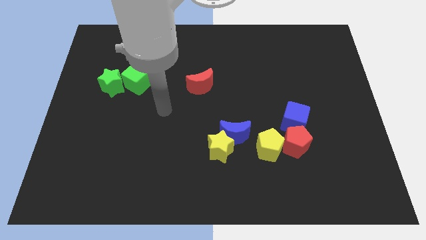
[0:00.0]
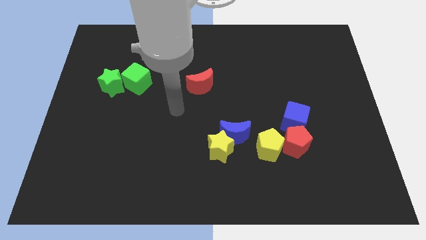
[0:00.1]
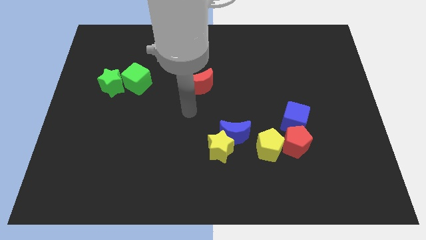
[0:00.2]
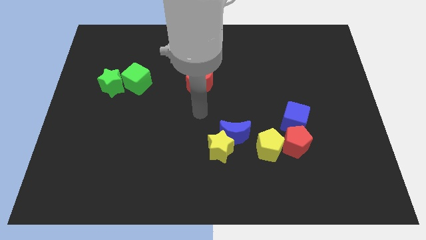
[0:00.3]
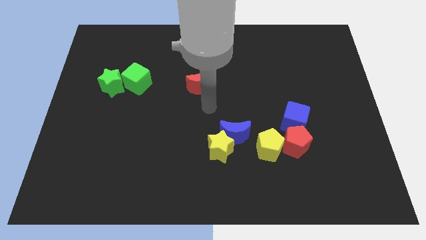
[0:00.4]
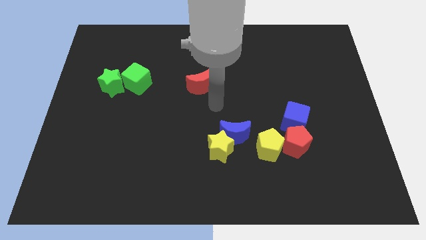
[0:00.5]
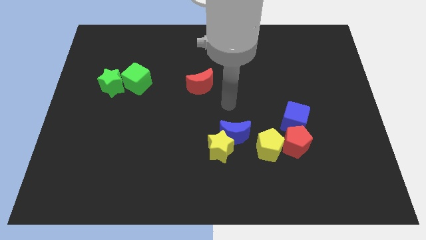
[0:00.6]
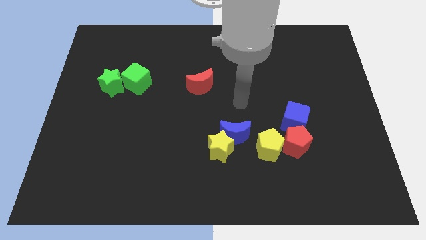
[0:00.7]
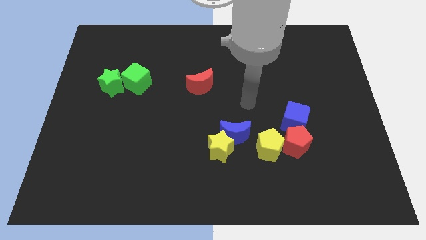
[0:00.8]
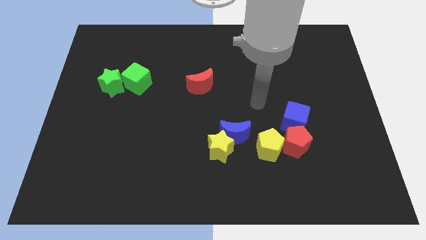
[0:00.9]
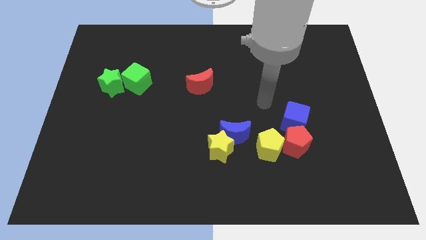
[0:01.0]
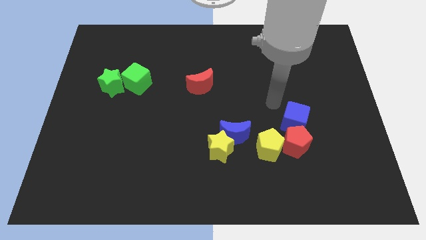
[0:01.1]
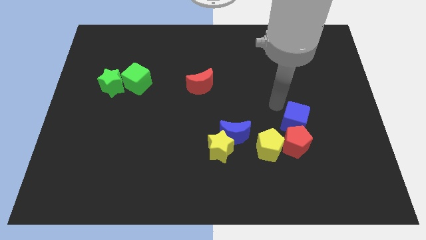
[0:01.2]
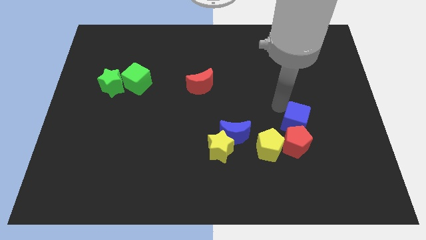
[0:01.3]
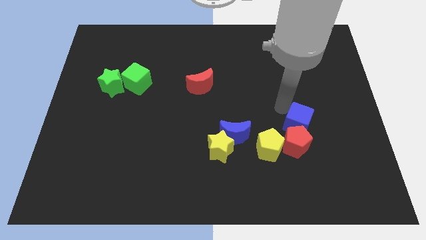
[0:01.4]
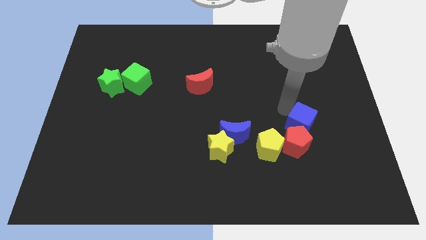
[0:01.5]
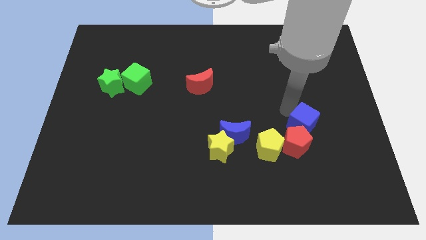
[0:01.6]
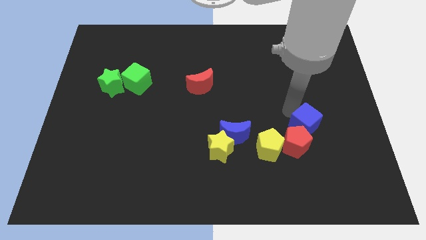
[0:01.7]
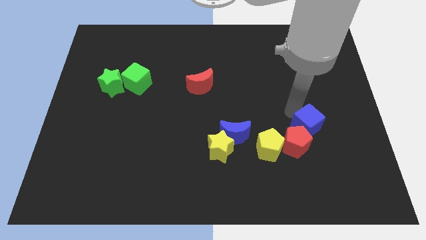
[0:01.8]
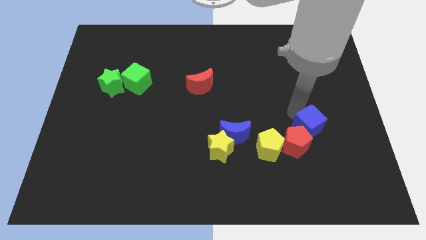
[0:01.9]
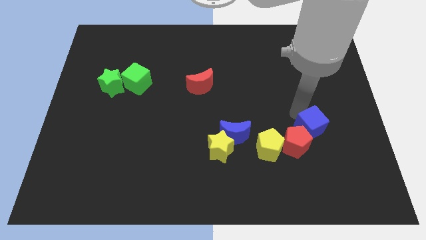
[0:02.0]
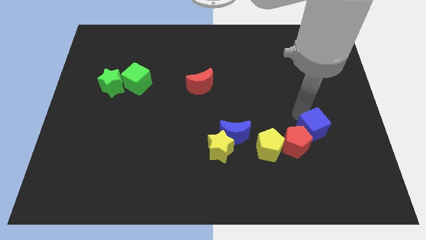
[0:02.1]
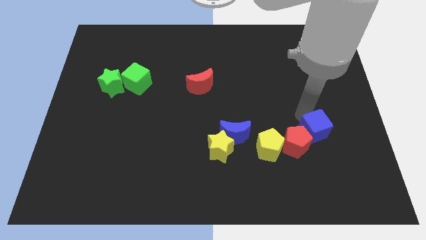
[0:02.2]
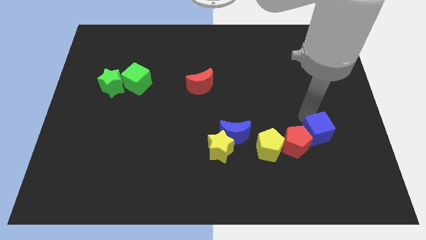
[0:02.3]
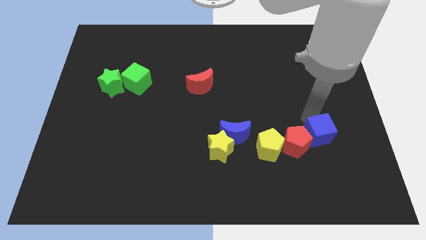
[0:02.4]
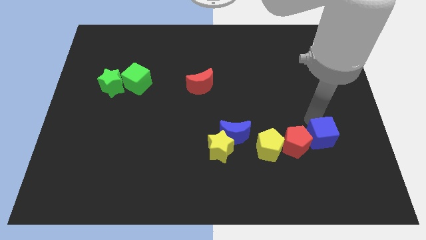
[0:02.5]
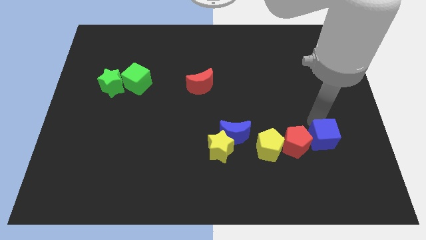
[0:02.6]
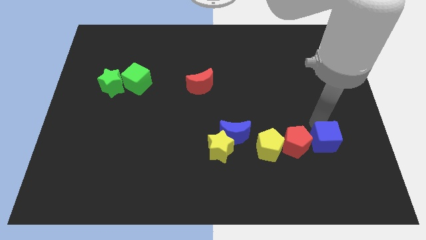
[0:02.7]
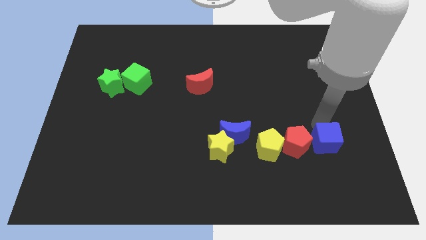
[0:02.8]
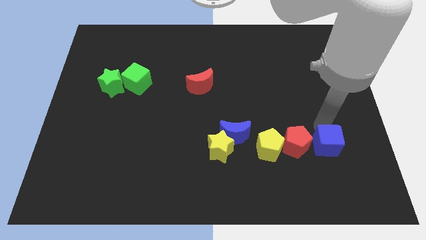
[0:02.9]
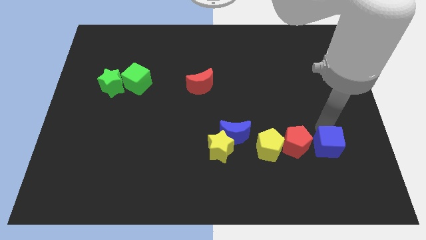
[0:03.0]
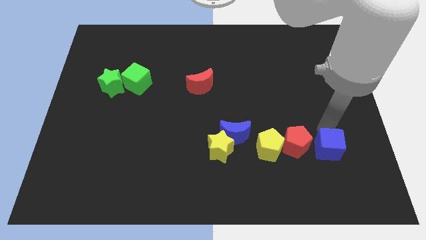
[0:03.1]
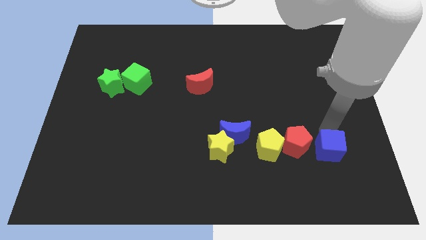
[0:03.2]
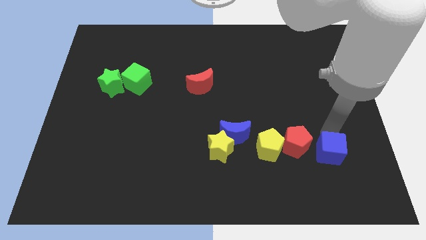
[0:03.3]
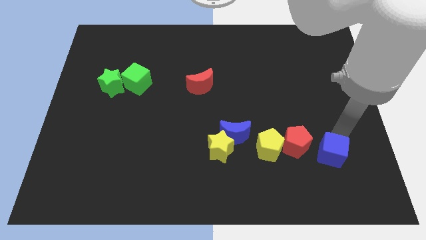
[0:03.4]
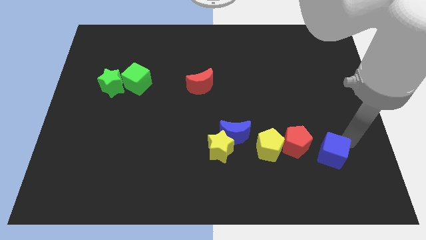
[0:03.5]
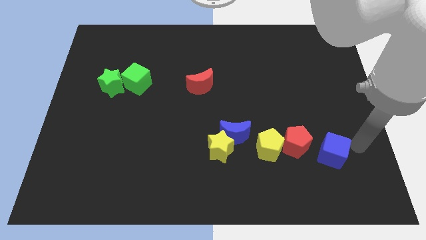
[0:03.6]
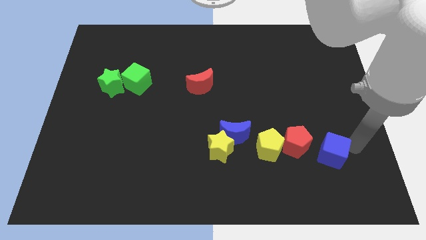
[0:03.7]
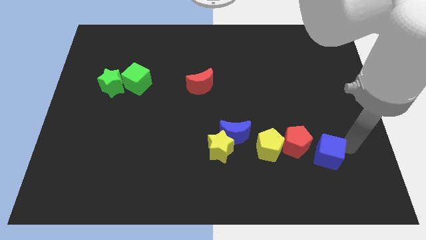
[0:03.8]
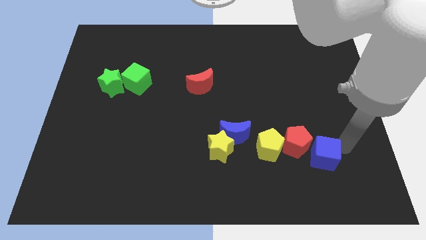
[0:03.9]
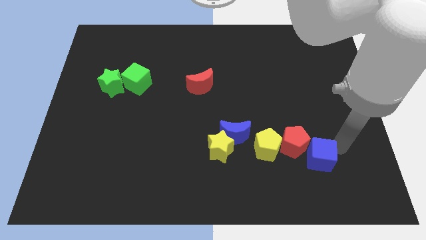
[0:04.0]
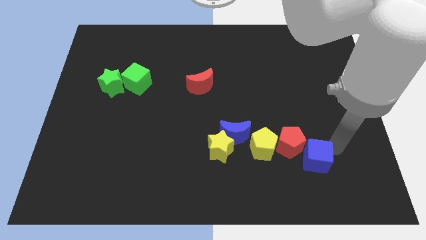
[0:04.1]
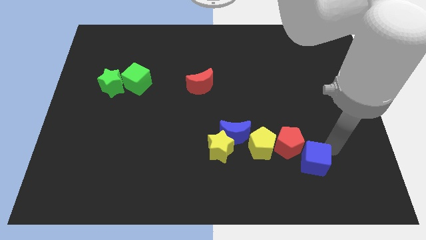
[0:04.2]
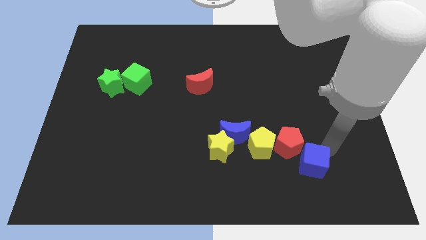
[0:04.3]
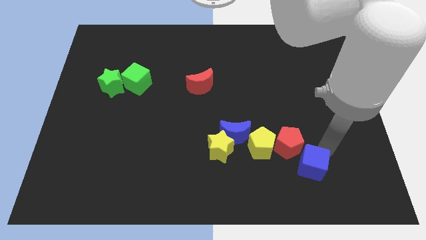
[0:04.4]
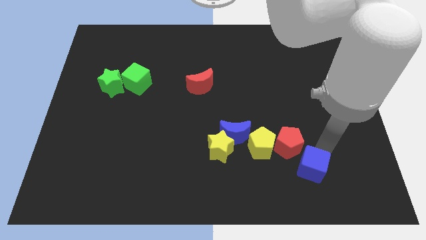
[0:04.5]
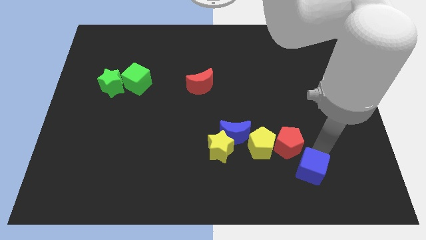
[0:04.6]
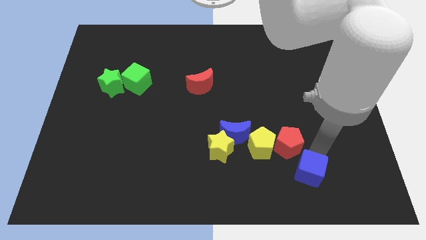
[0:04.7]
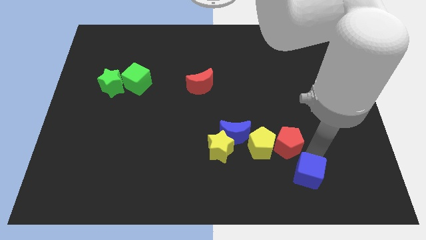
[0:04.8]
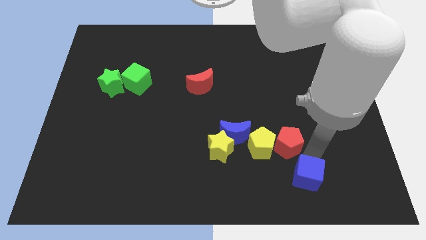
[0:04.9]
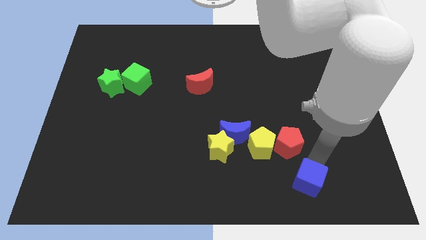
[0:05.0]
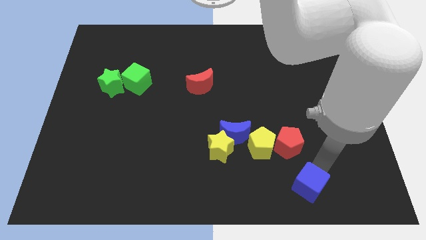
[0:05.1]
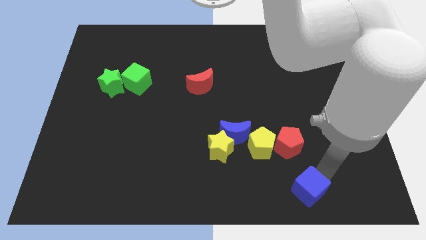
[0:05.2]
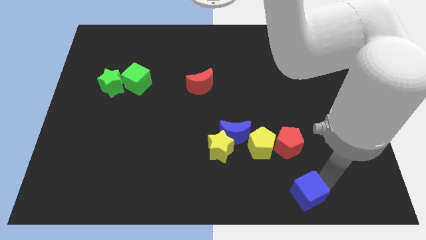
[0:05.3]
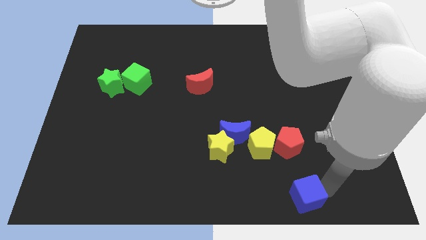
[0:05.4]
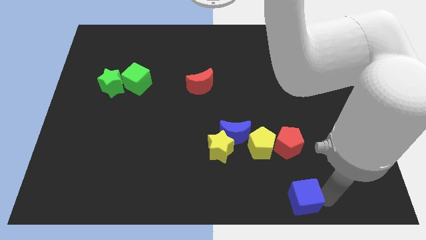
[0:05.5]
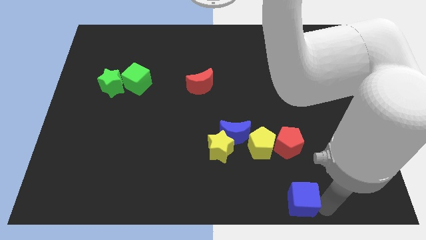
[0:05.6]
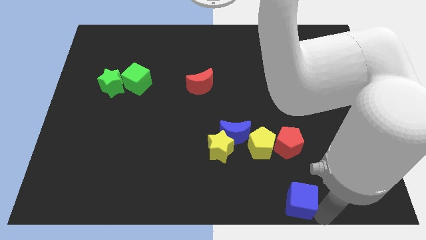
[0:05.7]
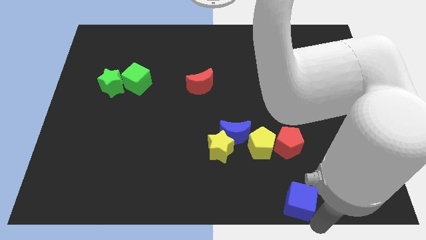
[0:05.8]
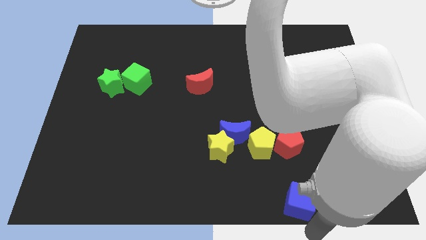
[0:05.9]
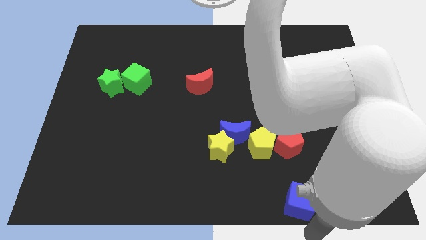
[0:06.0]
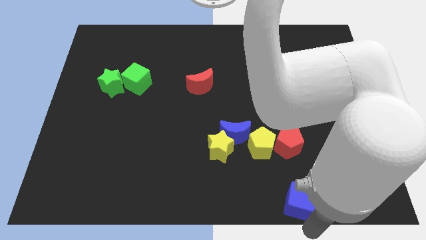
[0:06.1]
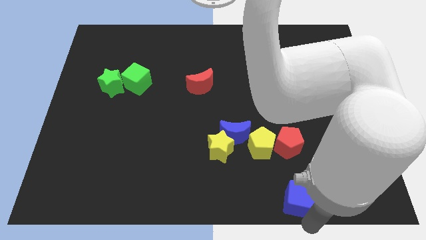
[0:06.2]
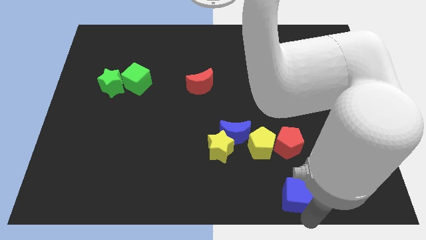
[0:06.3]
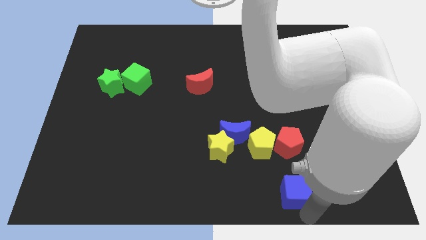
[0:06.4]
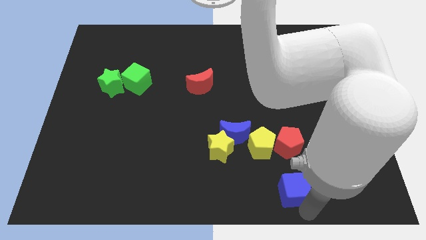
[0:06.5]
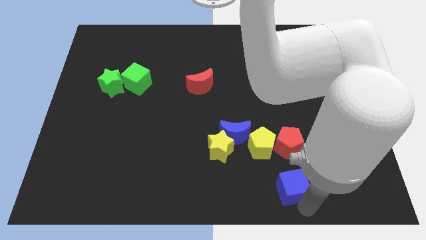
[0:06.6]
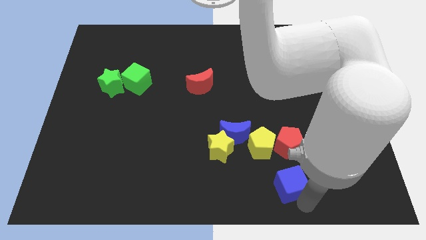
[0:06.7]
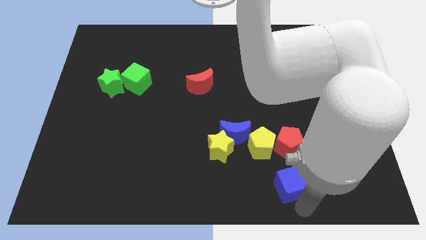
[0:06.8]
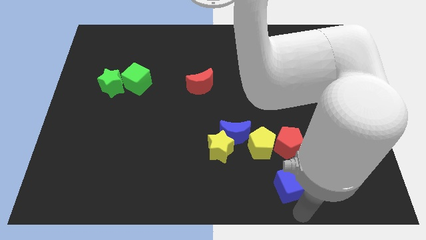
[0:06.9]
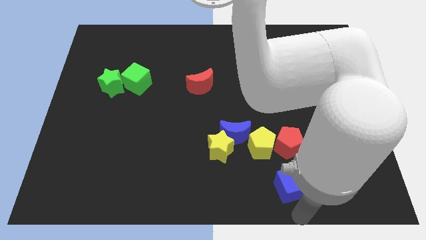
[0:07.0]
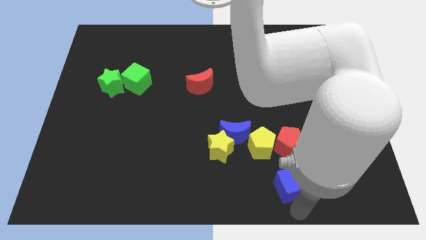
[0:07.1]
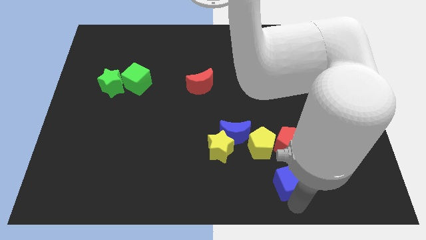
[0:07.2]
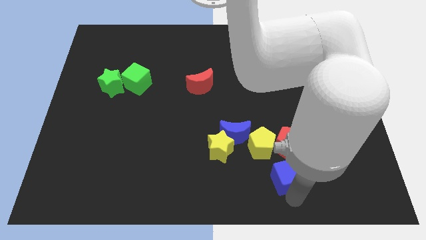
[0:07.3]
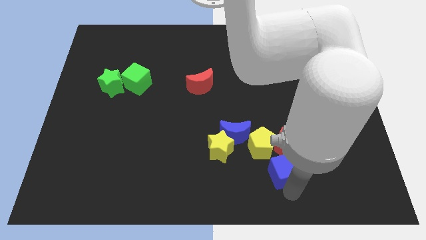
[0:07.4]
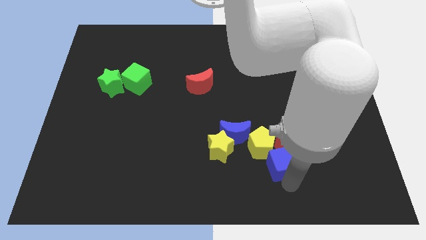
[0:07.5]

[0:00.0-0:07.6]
push the blue cube to the bottom right side of the blue moon
